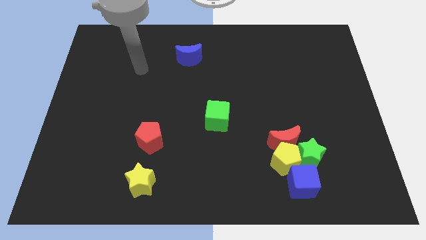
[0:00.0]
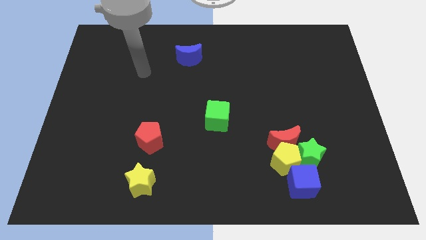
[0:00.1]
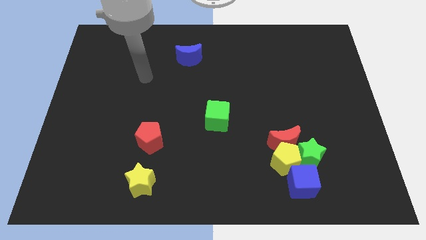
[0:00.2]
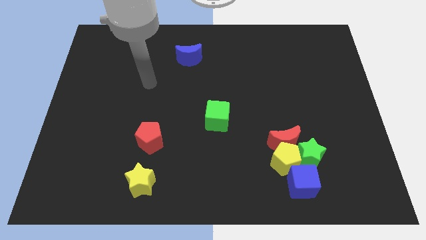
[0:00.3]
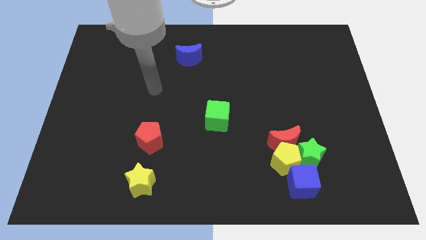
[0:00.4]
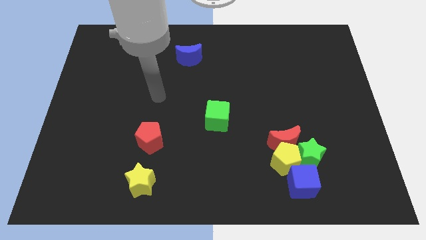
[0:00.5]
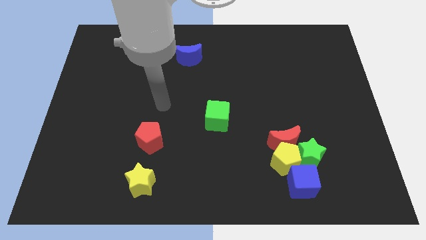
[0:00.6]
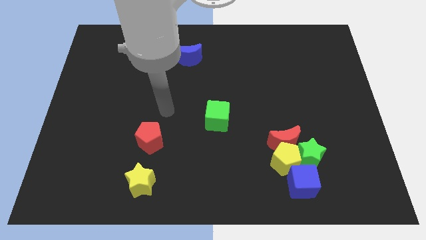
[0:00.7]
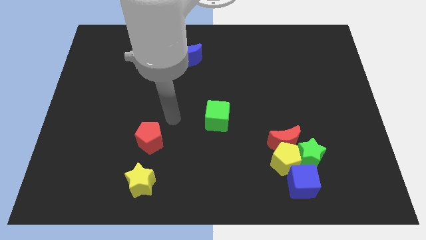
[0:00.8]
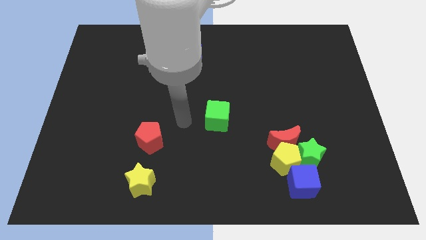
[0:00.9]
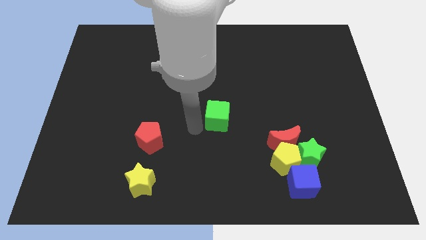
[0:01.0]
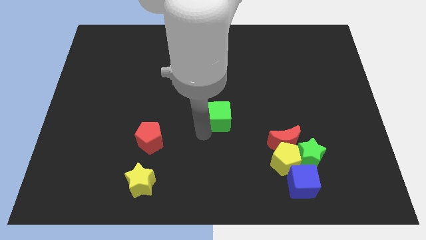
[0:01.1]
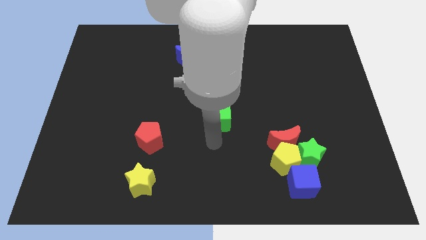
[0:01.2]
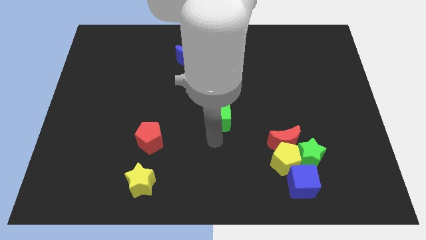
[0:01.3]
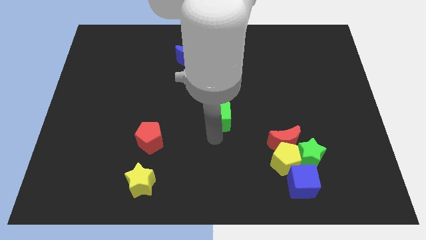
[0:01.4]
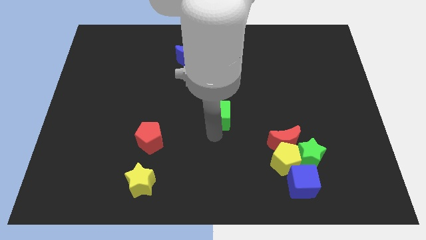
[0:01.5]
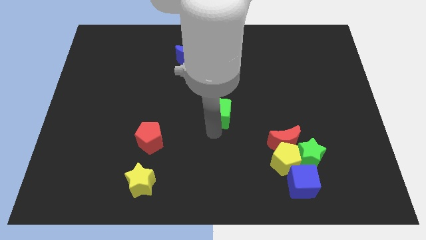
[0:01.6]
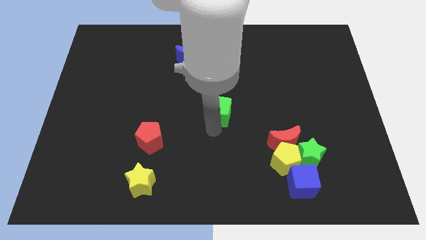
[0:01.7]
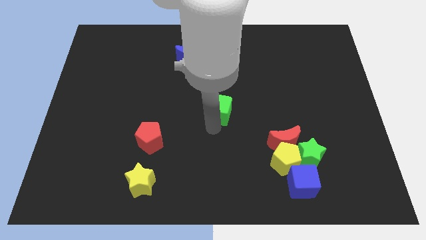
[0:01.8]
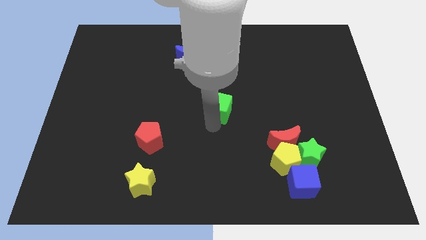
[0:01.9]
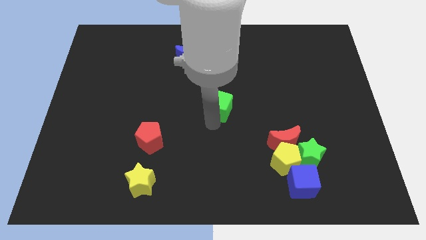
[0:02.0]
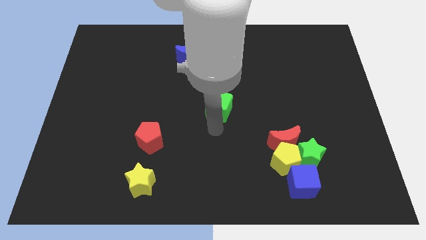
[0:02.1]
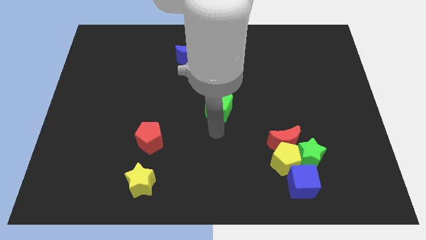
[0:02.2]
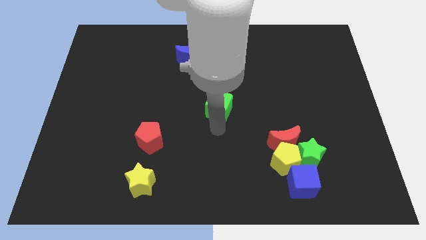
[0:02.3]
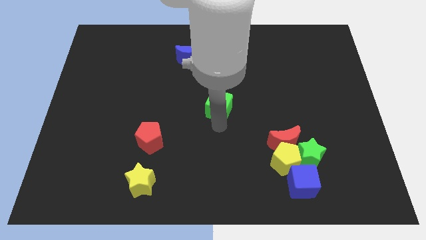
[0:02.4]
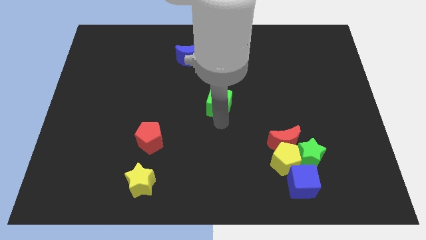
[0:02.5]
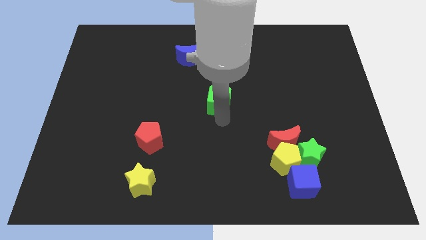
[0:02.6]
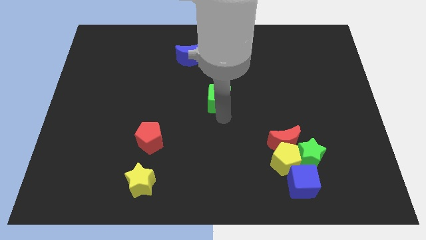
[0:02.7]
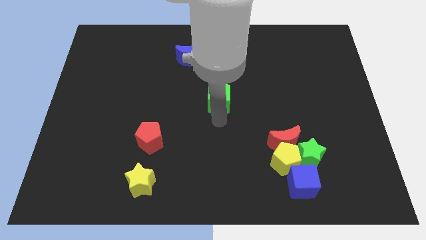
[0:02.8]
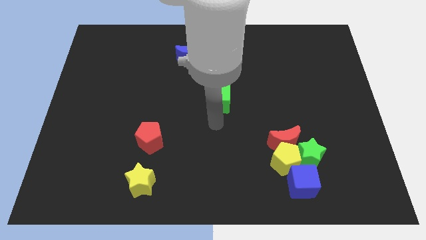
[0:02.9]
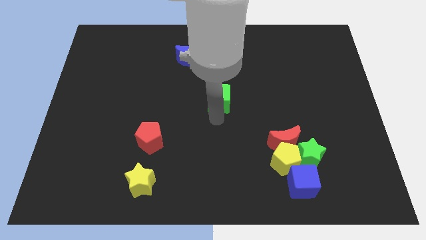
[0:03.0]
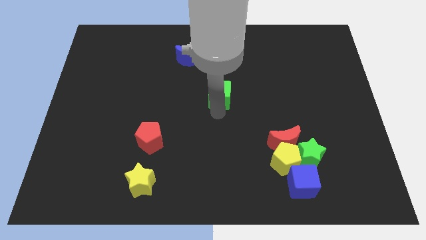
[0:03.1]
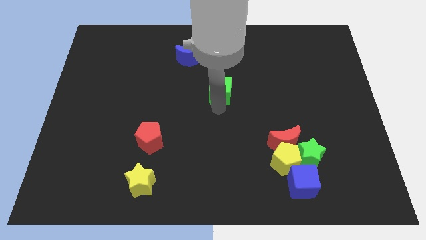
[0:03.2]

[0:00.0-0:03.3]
slightly slide the green cube up

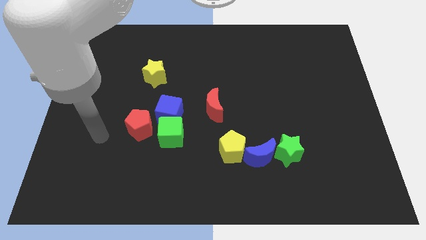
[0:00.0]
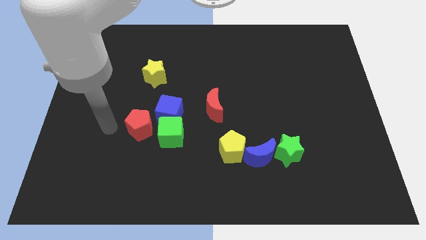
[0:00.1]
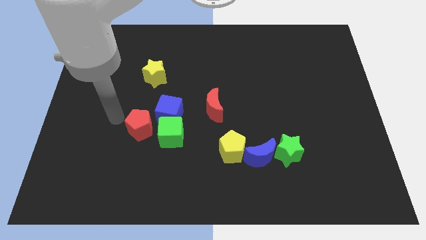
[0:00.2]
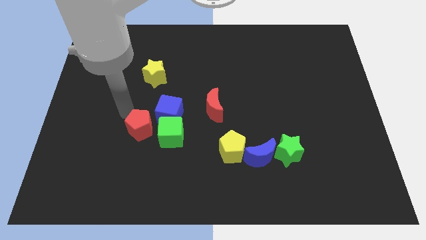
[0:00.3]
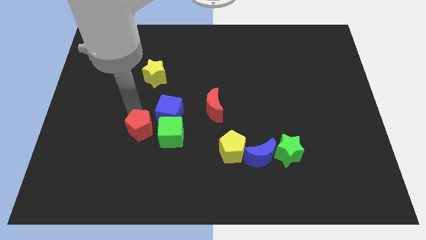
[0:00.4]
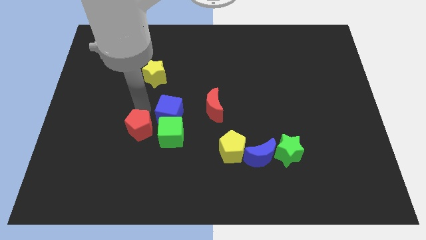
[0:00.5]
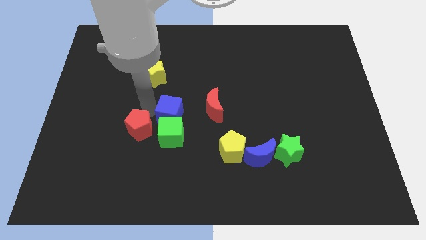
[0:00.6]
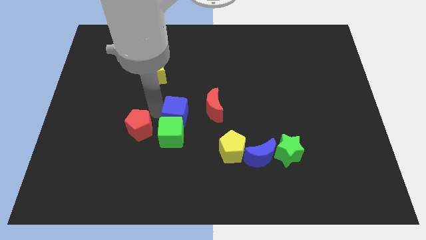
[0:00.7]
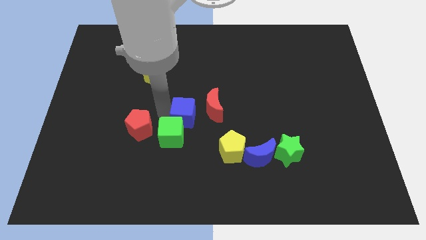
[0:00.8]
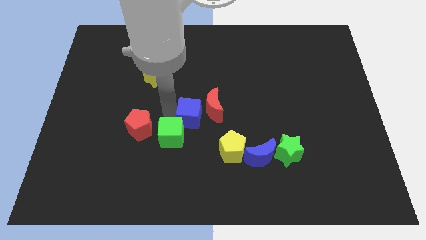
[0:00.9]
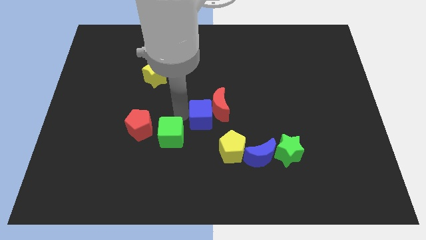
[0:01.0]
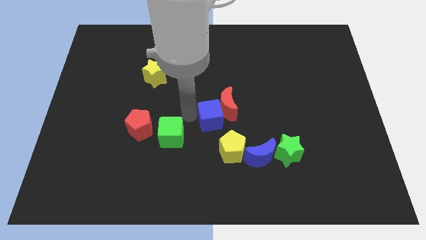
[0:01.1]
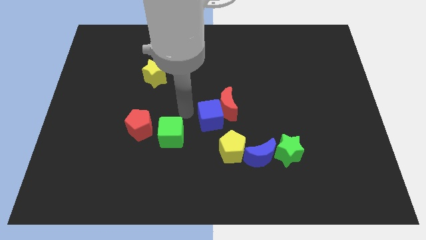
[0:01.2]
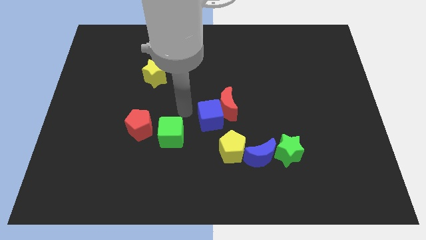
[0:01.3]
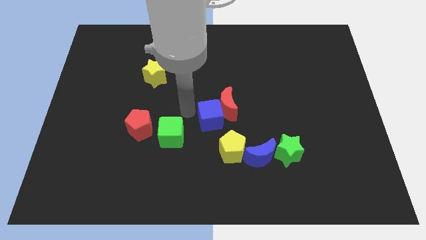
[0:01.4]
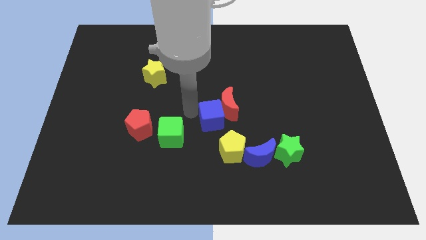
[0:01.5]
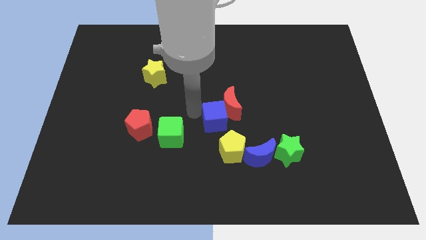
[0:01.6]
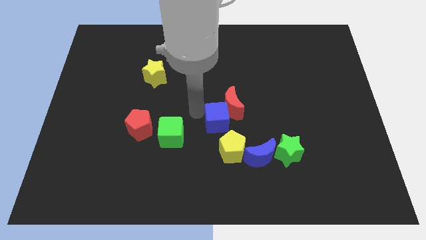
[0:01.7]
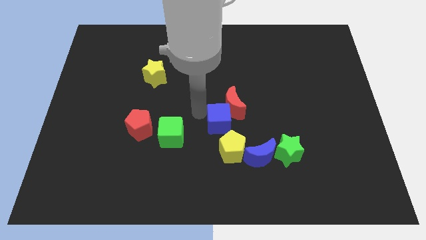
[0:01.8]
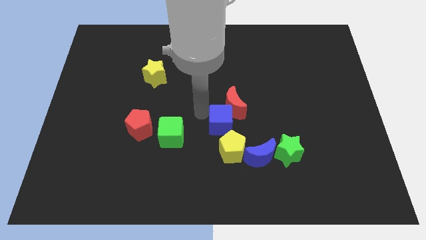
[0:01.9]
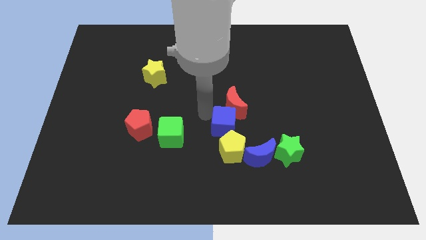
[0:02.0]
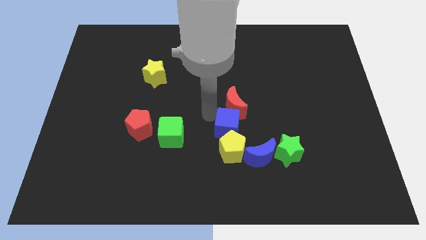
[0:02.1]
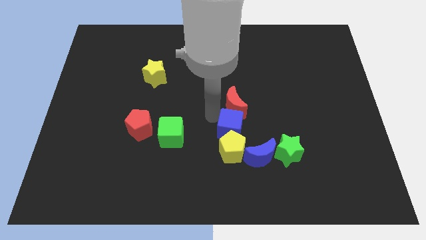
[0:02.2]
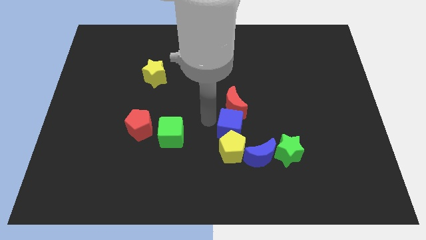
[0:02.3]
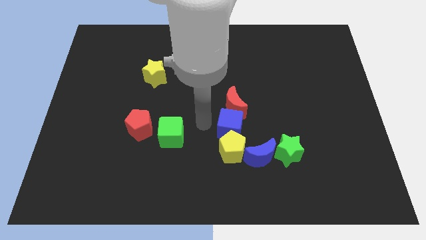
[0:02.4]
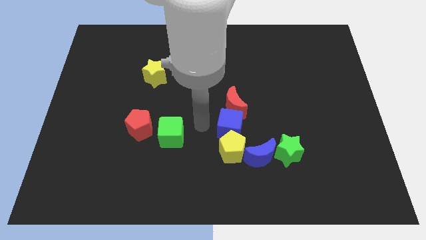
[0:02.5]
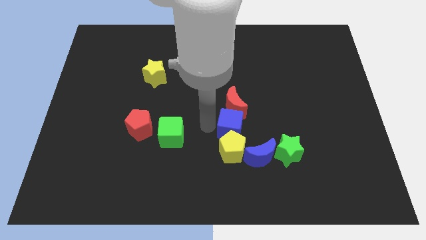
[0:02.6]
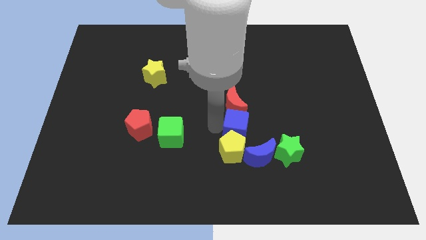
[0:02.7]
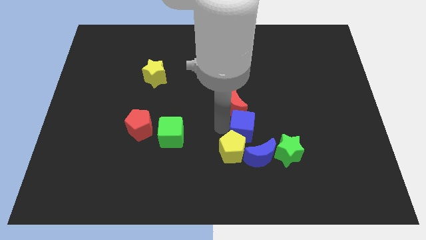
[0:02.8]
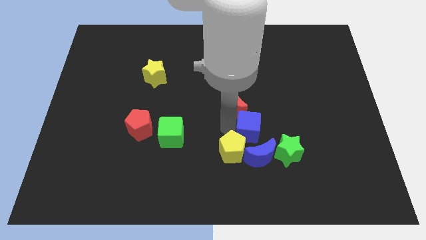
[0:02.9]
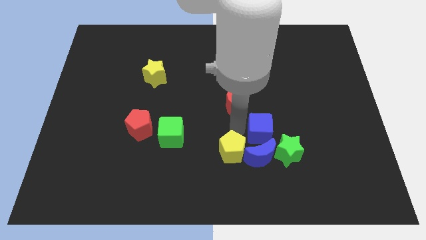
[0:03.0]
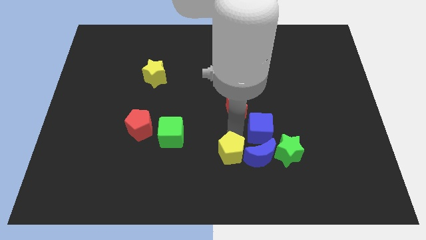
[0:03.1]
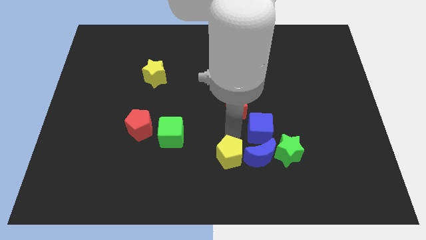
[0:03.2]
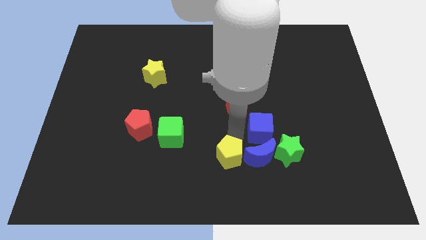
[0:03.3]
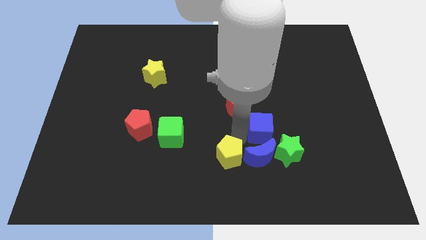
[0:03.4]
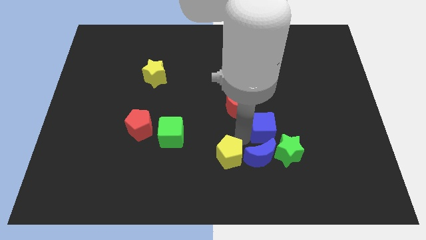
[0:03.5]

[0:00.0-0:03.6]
push the blue cube right

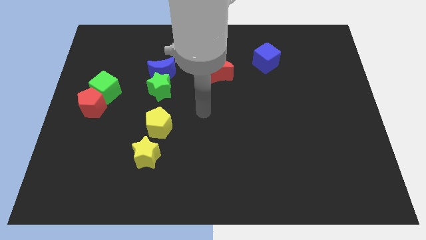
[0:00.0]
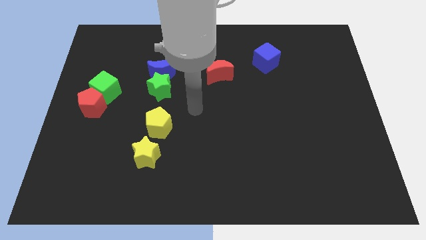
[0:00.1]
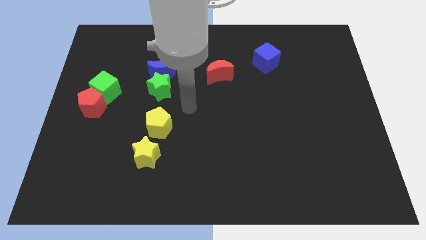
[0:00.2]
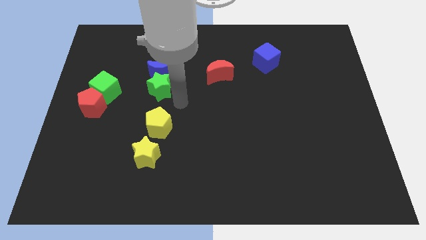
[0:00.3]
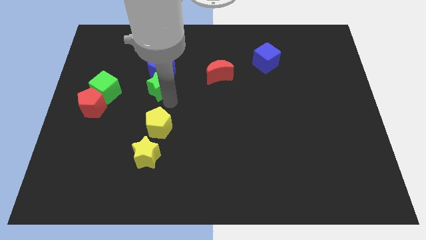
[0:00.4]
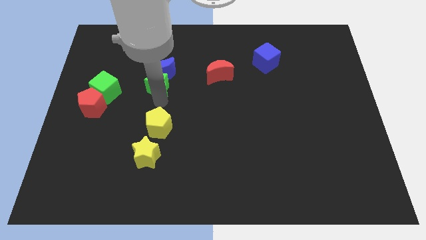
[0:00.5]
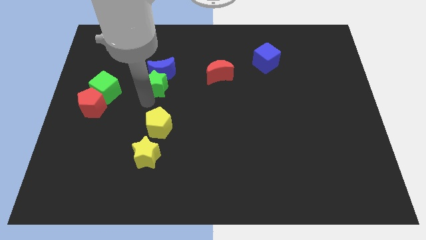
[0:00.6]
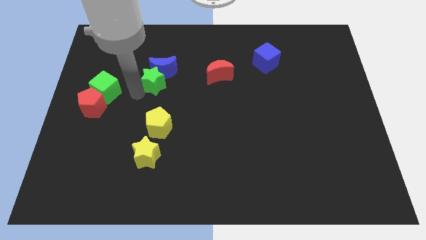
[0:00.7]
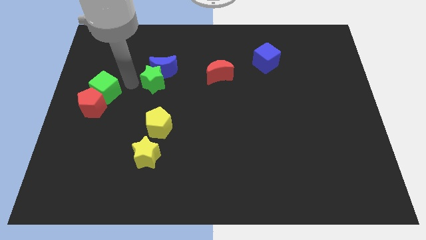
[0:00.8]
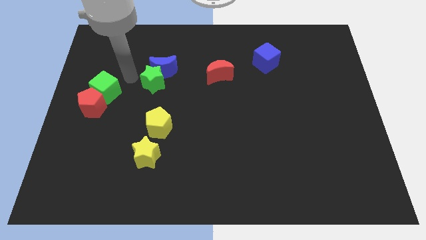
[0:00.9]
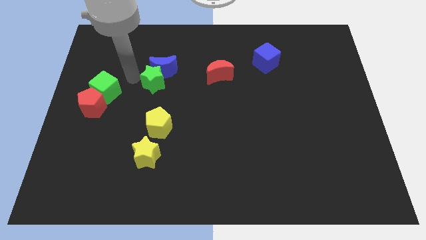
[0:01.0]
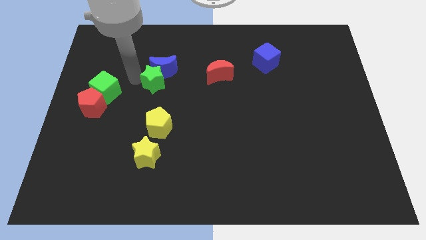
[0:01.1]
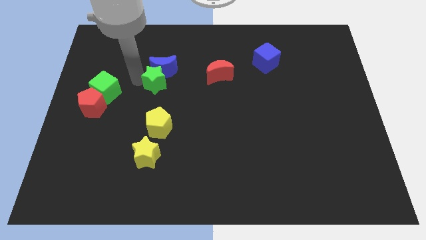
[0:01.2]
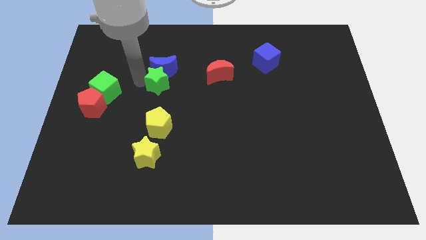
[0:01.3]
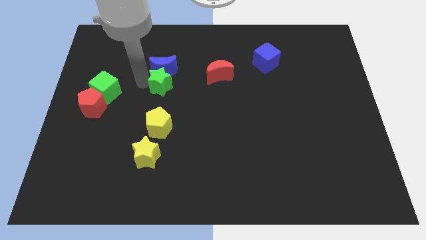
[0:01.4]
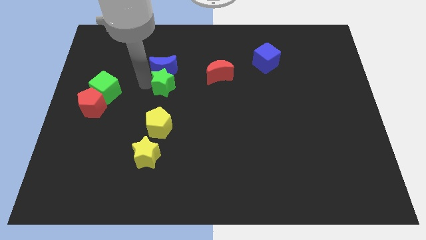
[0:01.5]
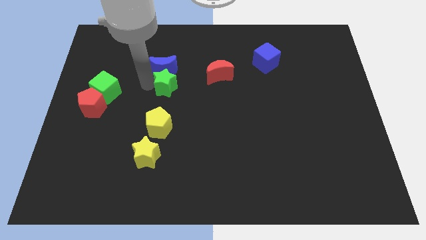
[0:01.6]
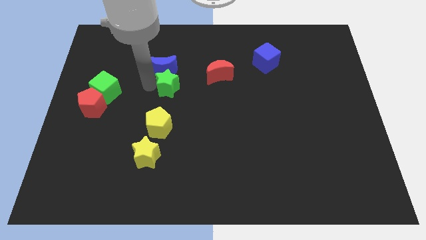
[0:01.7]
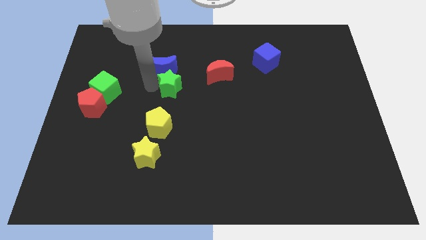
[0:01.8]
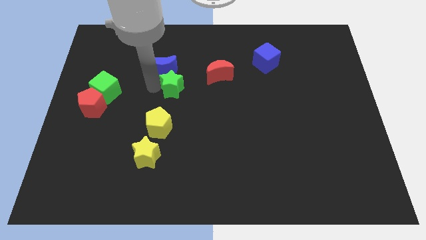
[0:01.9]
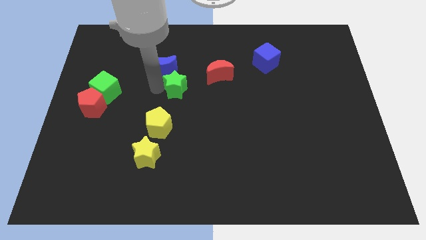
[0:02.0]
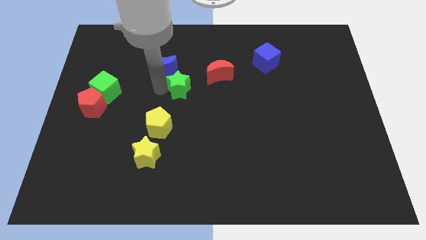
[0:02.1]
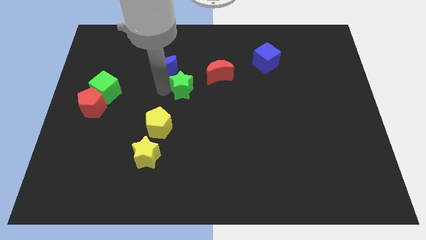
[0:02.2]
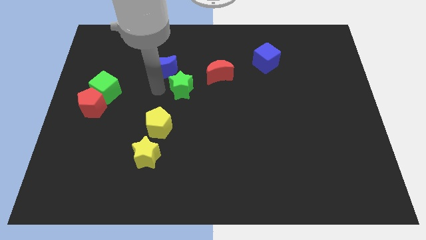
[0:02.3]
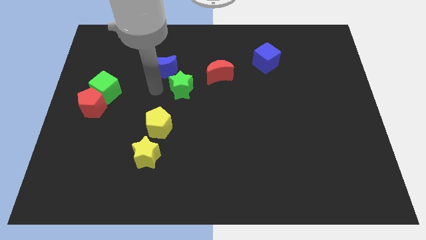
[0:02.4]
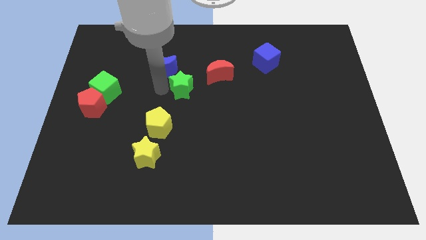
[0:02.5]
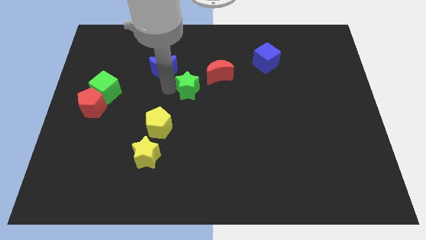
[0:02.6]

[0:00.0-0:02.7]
push the green star to the right a little
